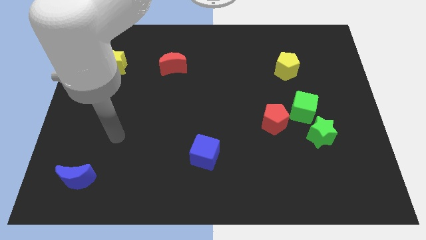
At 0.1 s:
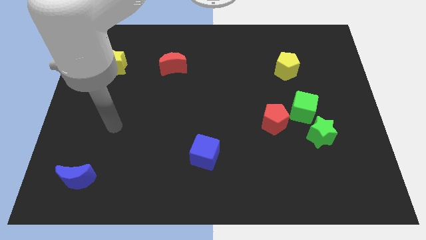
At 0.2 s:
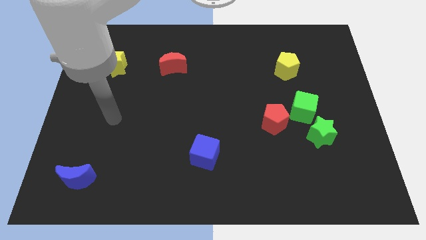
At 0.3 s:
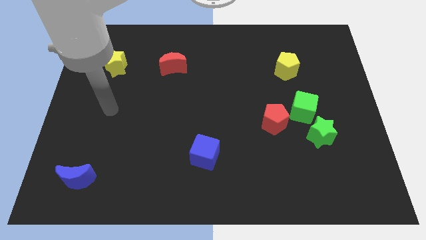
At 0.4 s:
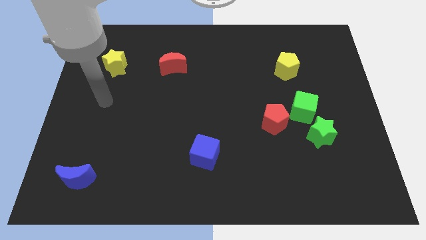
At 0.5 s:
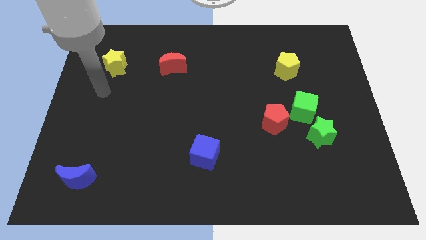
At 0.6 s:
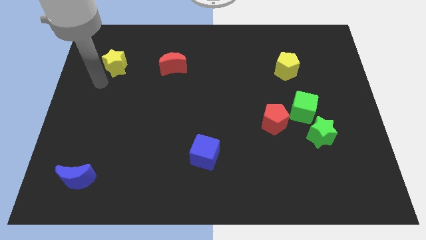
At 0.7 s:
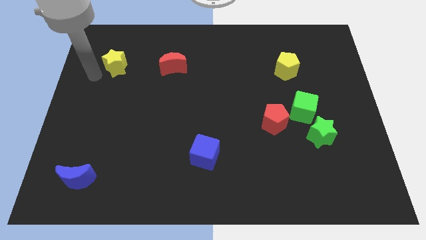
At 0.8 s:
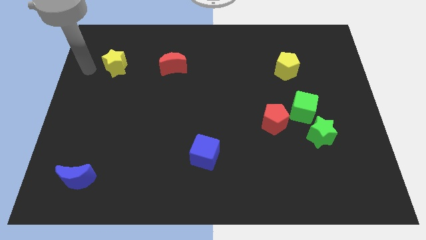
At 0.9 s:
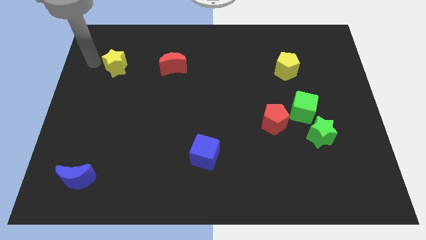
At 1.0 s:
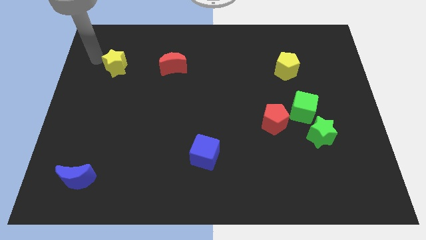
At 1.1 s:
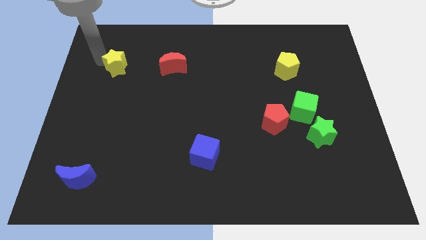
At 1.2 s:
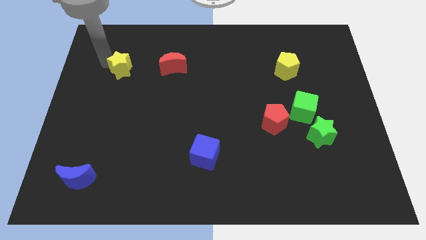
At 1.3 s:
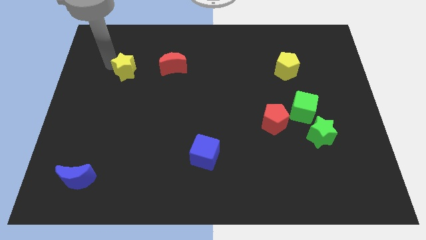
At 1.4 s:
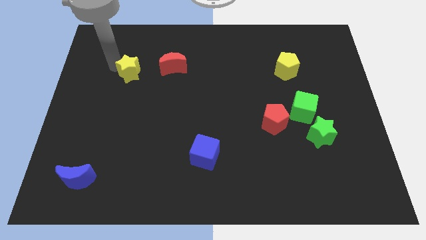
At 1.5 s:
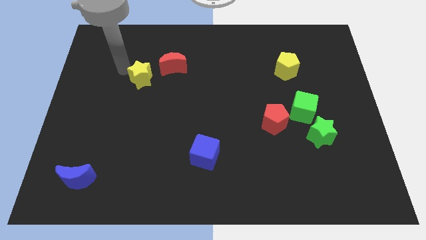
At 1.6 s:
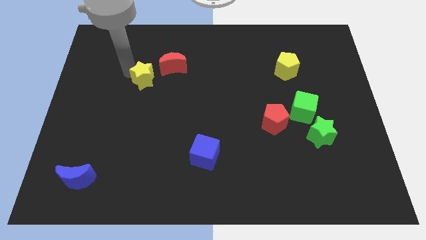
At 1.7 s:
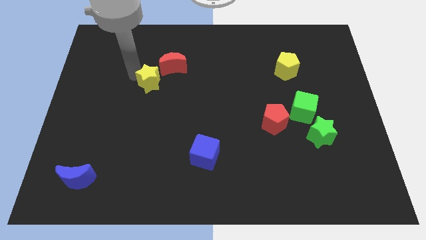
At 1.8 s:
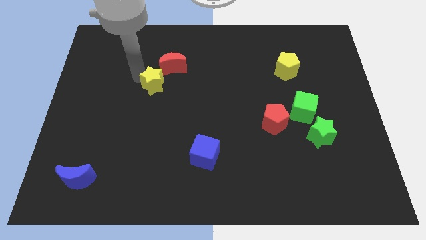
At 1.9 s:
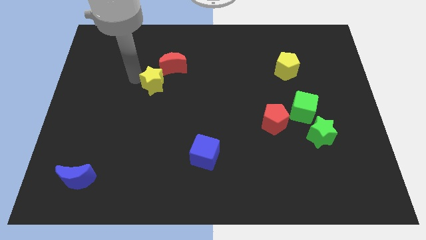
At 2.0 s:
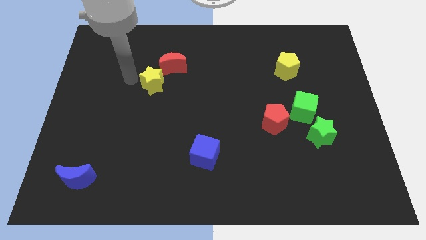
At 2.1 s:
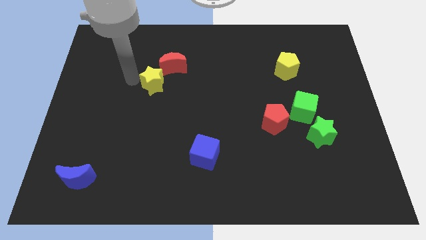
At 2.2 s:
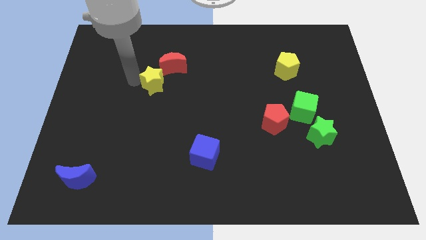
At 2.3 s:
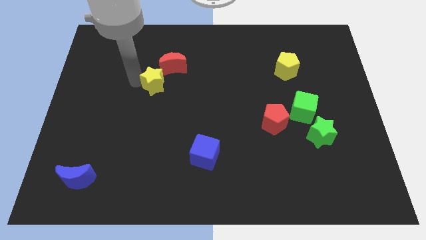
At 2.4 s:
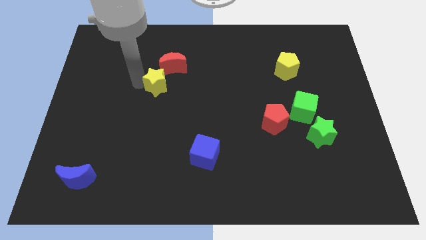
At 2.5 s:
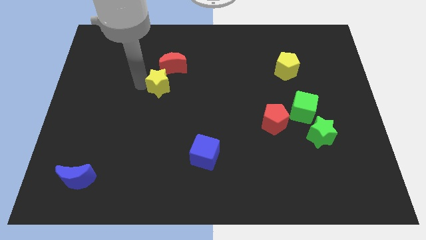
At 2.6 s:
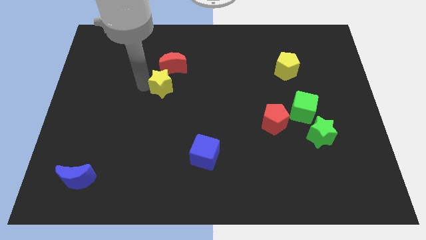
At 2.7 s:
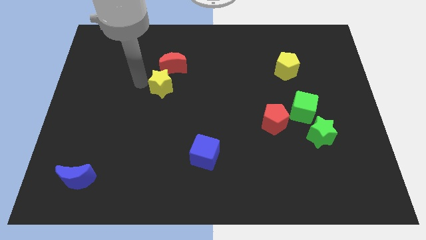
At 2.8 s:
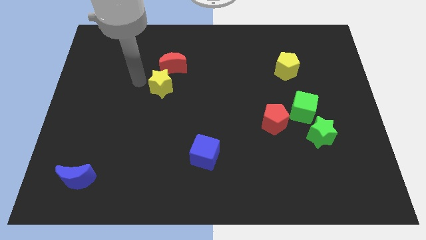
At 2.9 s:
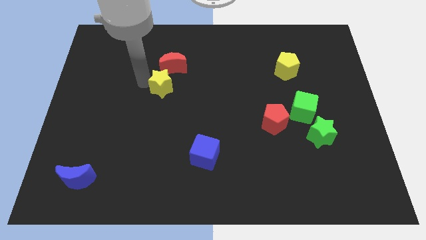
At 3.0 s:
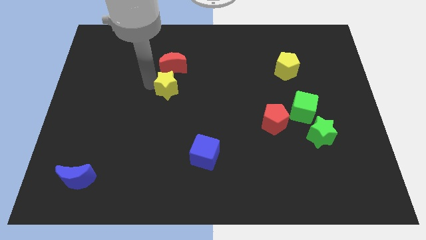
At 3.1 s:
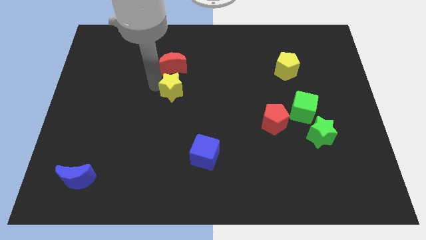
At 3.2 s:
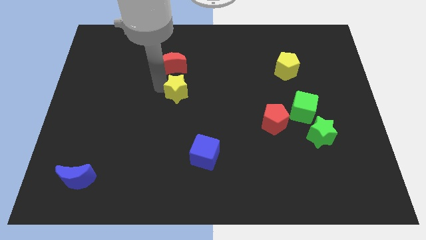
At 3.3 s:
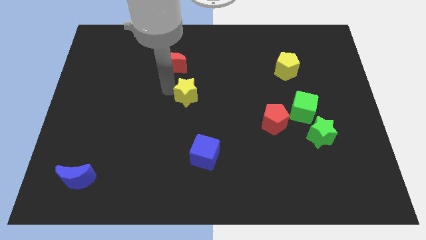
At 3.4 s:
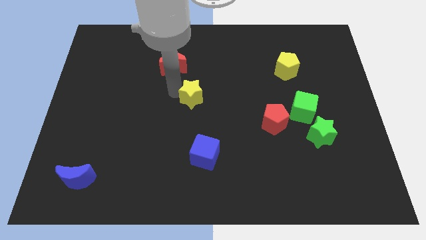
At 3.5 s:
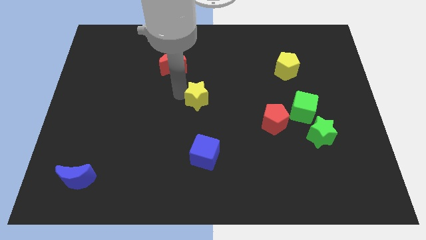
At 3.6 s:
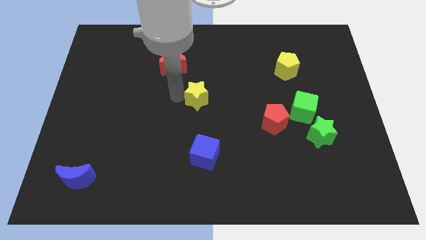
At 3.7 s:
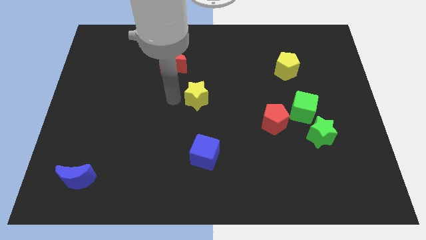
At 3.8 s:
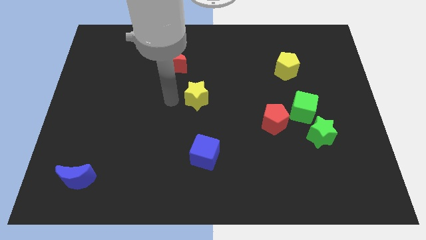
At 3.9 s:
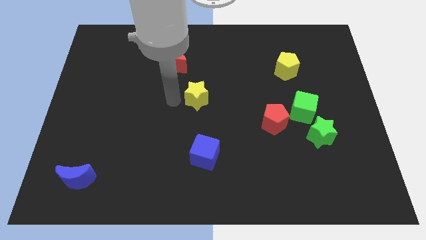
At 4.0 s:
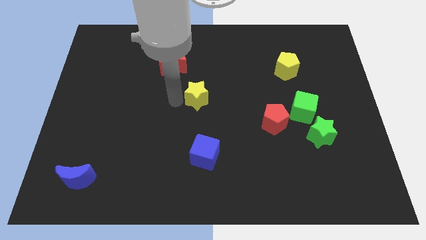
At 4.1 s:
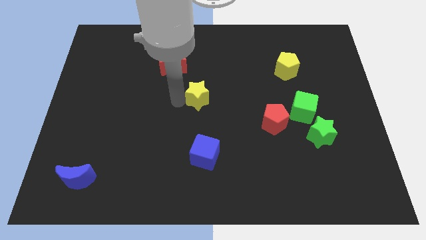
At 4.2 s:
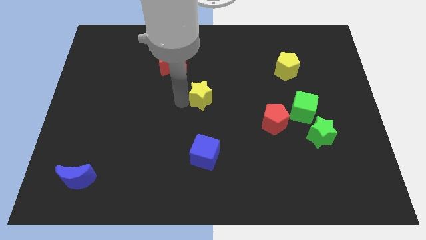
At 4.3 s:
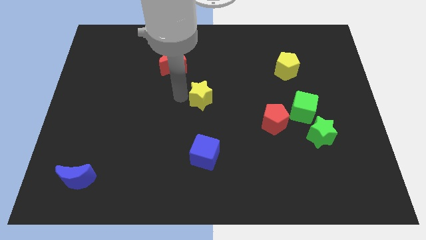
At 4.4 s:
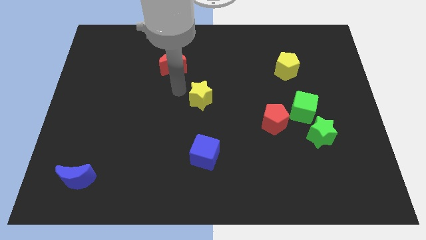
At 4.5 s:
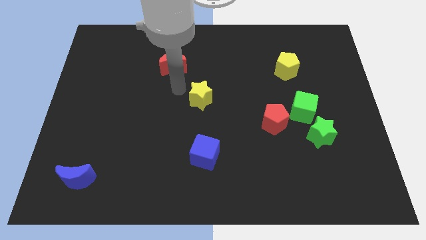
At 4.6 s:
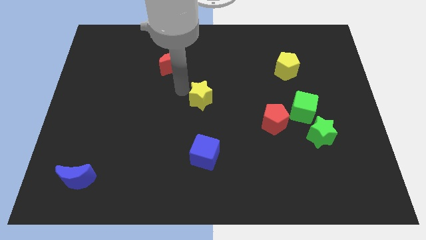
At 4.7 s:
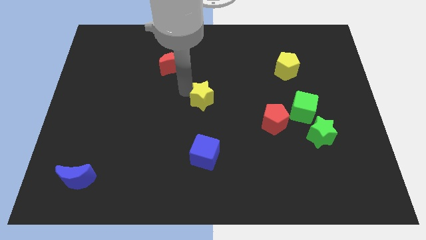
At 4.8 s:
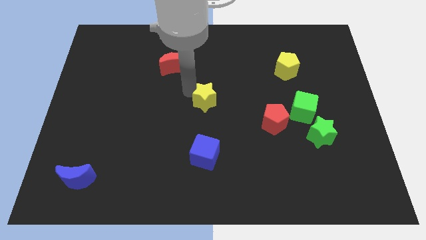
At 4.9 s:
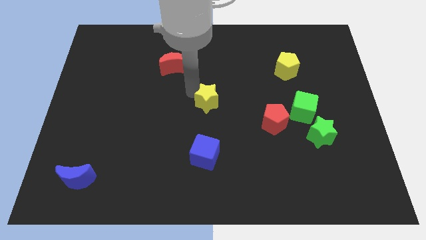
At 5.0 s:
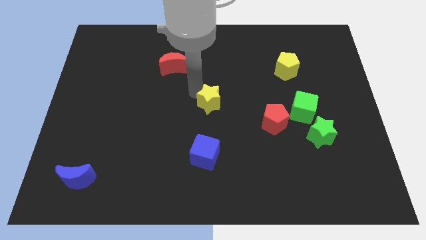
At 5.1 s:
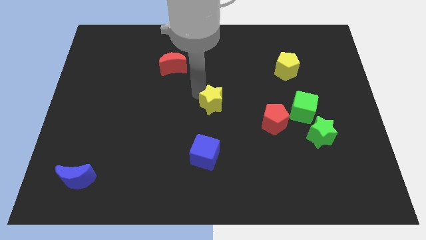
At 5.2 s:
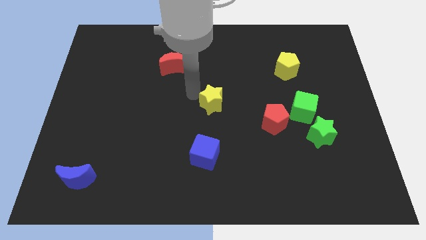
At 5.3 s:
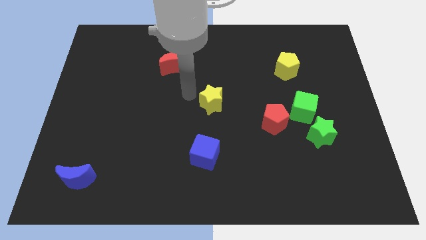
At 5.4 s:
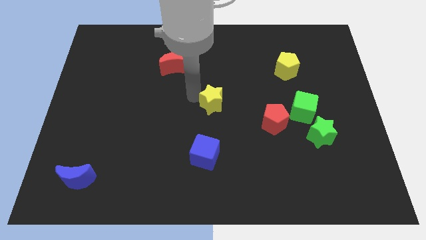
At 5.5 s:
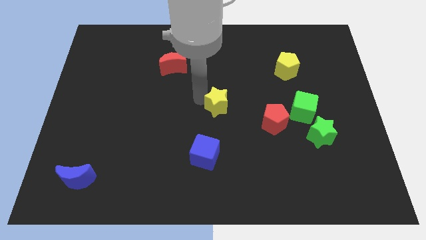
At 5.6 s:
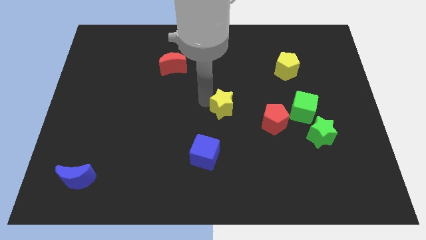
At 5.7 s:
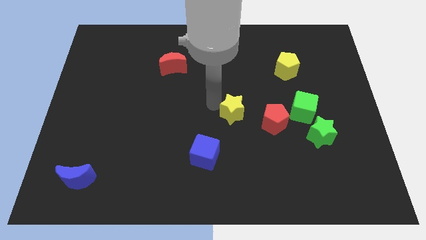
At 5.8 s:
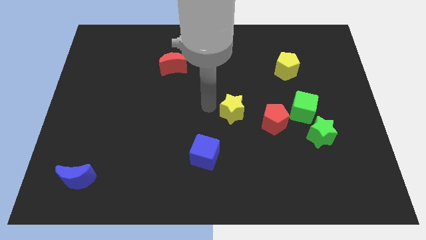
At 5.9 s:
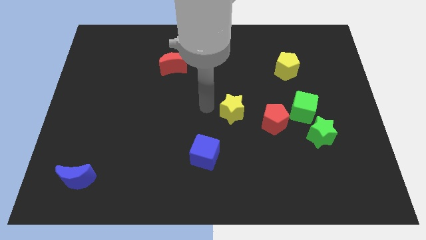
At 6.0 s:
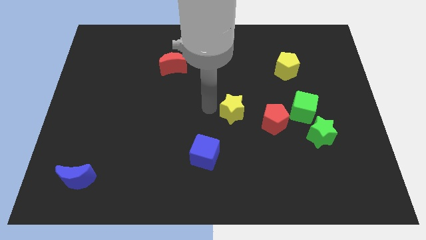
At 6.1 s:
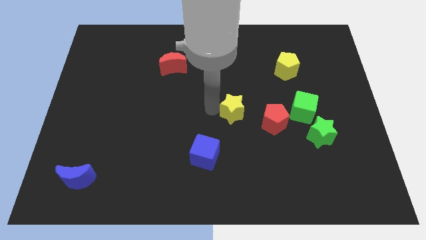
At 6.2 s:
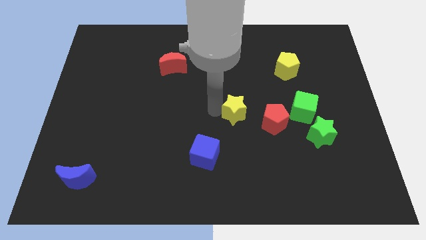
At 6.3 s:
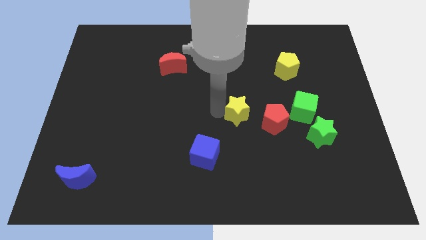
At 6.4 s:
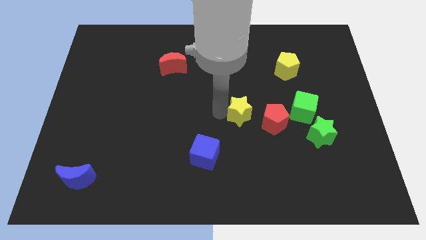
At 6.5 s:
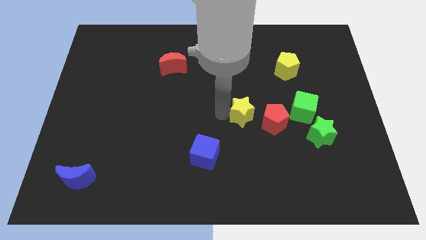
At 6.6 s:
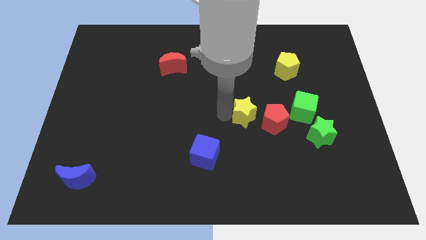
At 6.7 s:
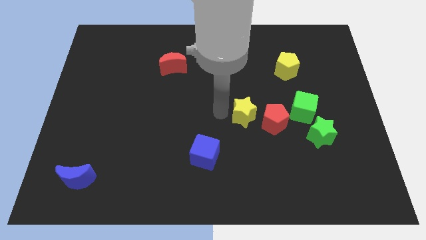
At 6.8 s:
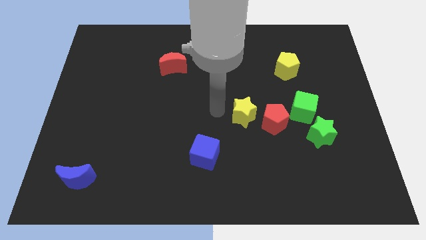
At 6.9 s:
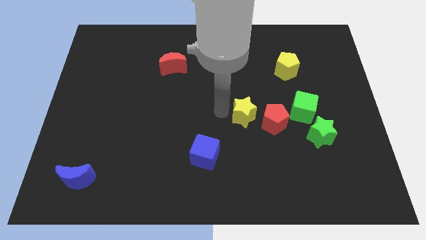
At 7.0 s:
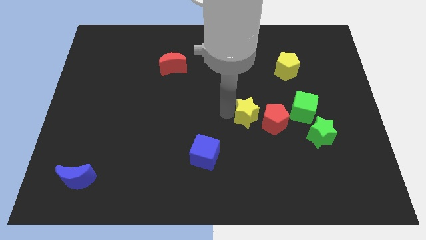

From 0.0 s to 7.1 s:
slide the yellow star towards the red pentagon

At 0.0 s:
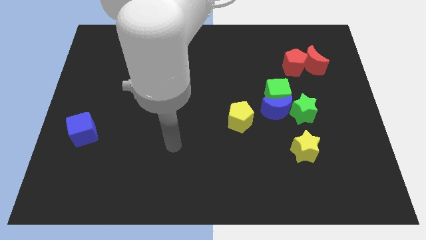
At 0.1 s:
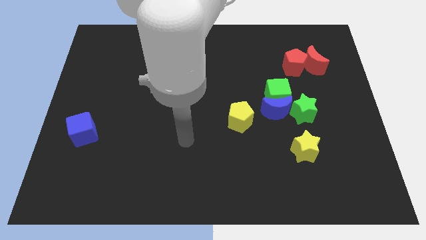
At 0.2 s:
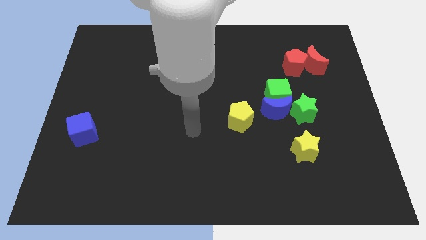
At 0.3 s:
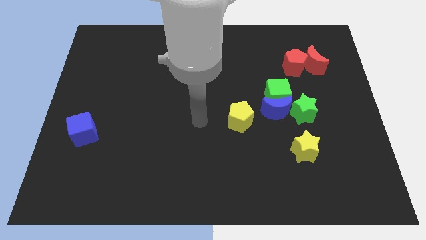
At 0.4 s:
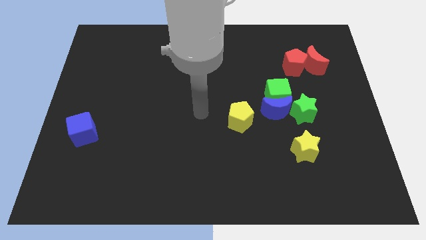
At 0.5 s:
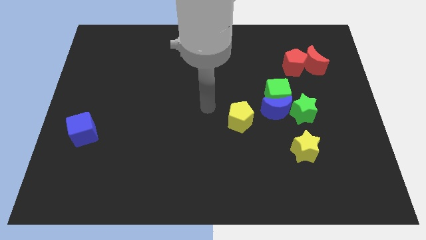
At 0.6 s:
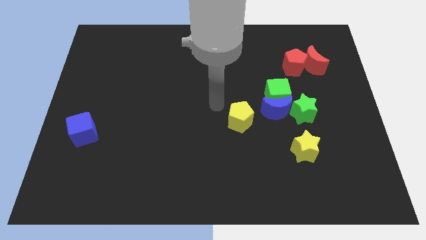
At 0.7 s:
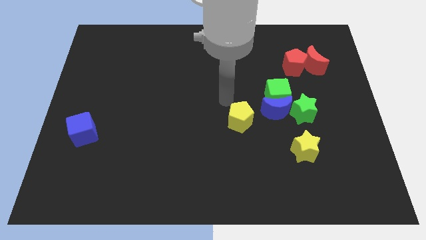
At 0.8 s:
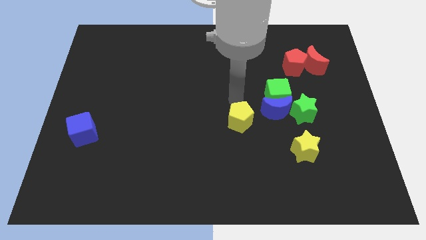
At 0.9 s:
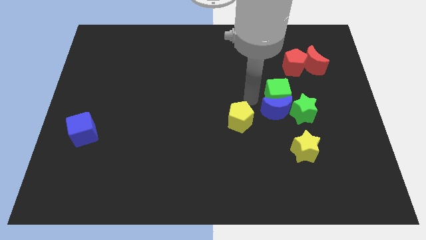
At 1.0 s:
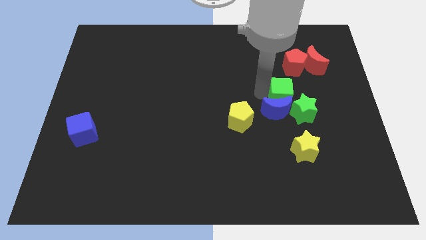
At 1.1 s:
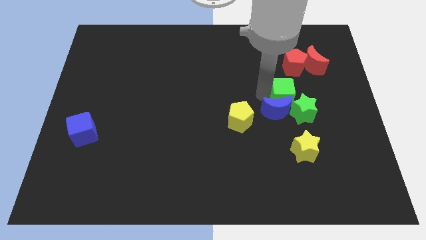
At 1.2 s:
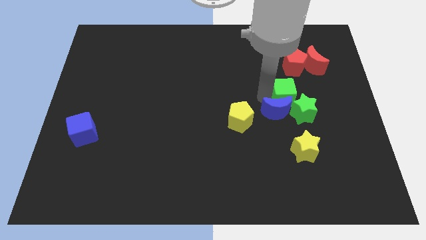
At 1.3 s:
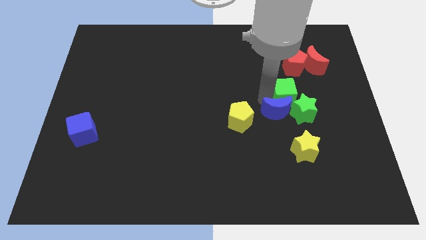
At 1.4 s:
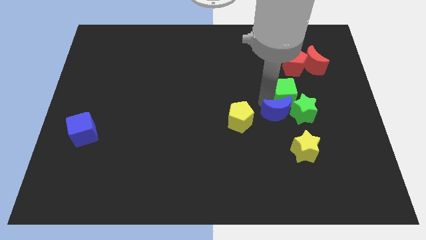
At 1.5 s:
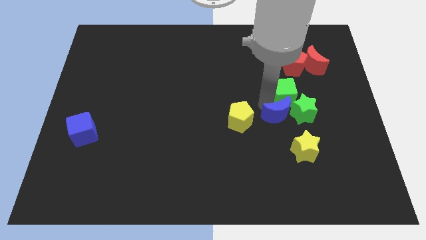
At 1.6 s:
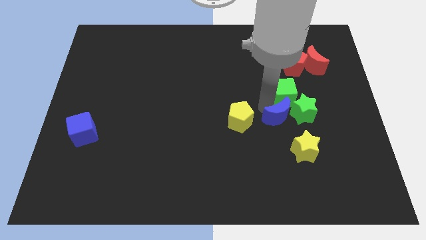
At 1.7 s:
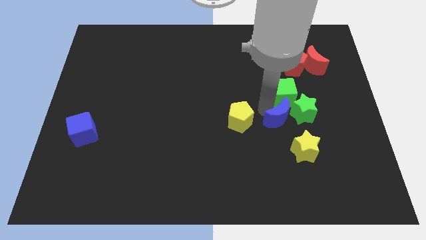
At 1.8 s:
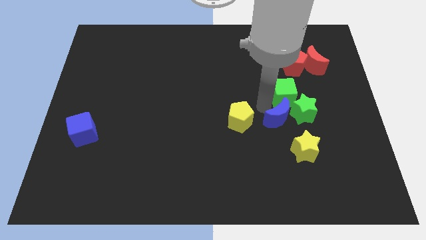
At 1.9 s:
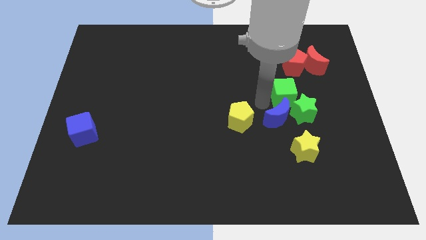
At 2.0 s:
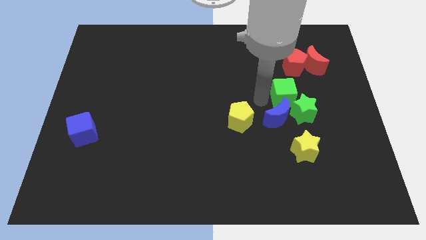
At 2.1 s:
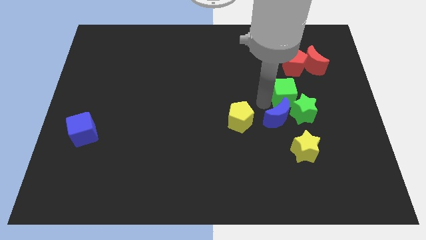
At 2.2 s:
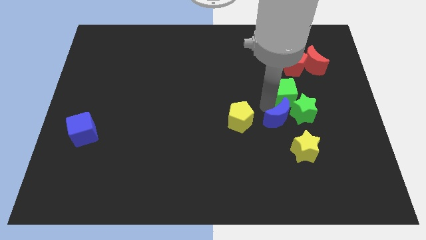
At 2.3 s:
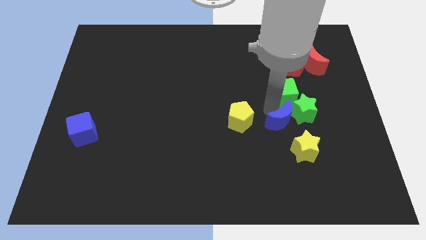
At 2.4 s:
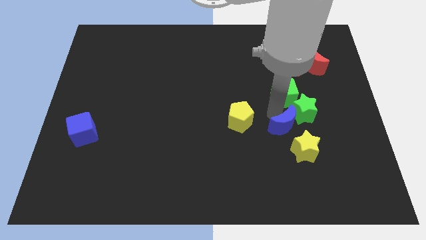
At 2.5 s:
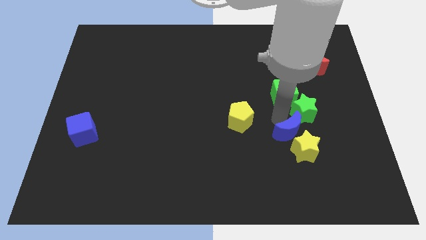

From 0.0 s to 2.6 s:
move the blue moon towards the yellow star
